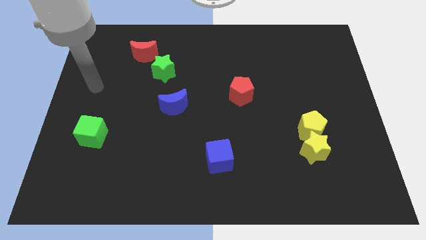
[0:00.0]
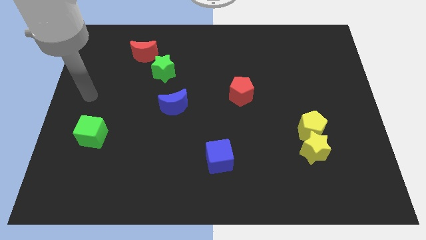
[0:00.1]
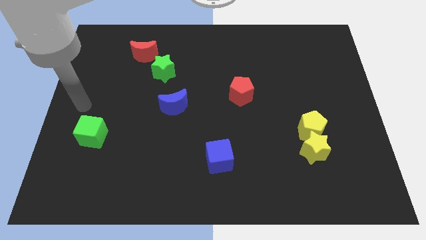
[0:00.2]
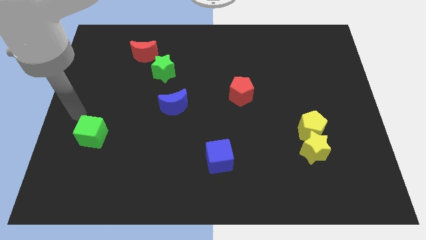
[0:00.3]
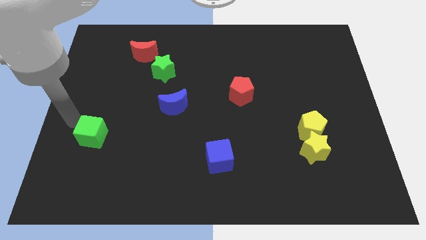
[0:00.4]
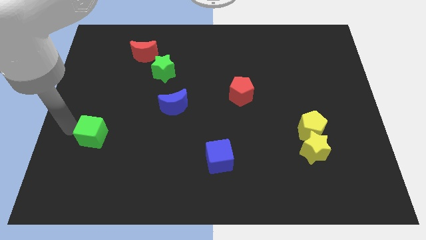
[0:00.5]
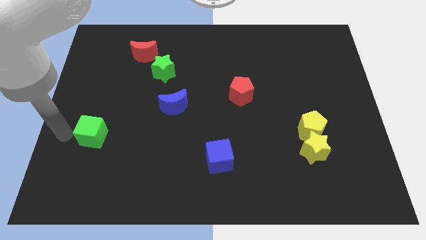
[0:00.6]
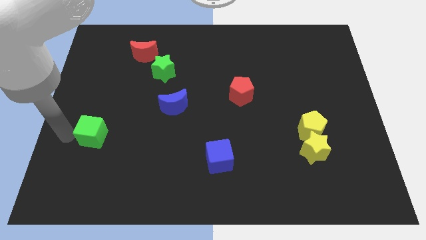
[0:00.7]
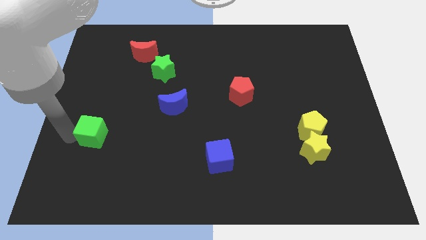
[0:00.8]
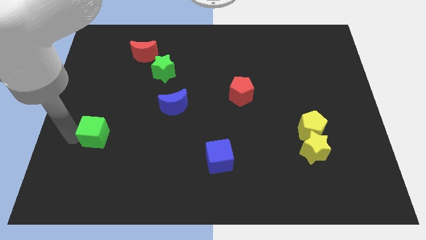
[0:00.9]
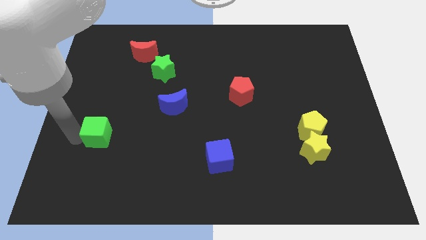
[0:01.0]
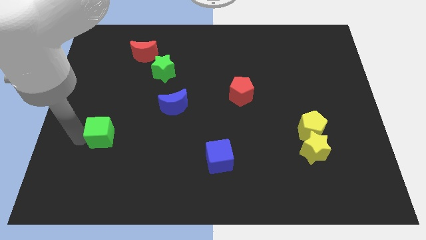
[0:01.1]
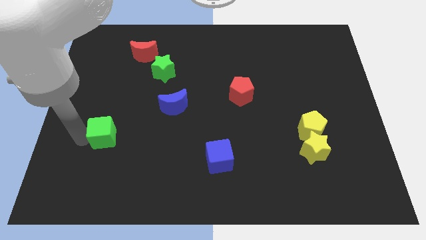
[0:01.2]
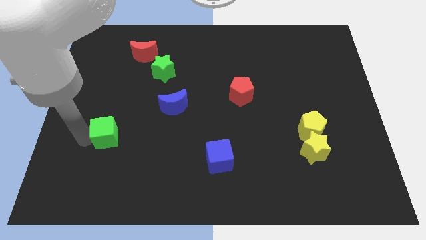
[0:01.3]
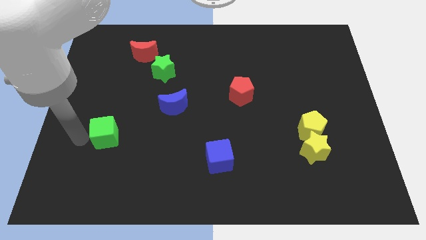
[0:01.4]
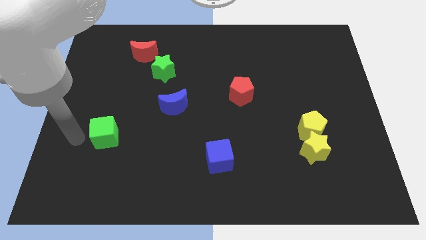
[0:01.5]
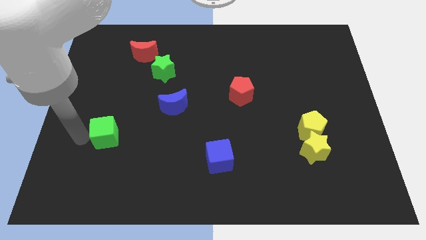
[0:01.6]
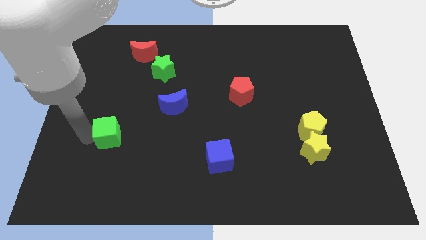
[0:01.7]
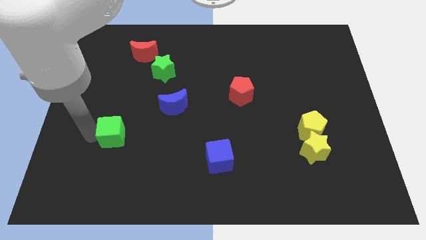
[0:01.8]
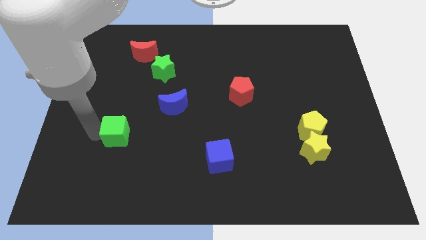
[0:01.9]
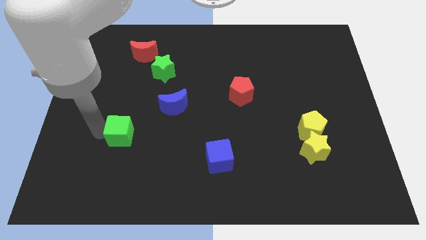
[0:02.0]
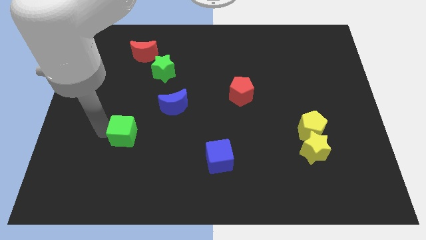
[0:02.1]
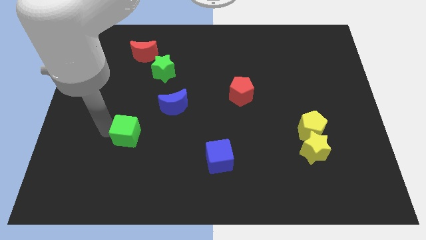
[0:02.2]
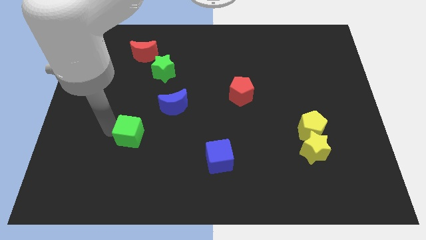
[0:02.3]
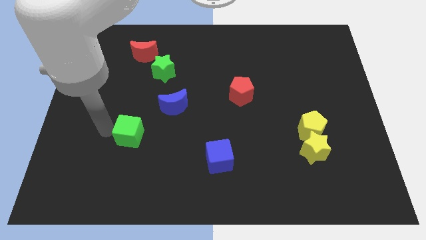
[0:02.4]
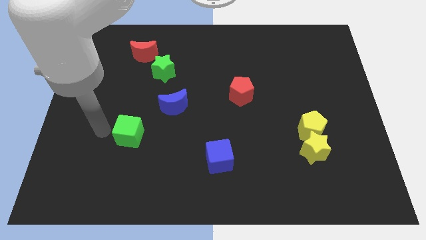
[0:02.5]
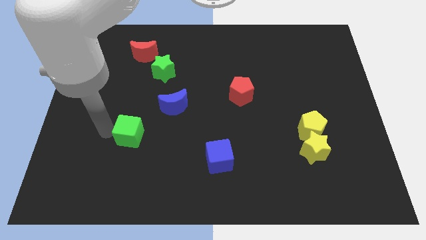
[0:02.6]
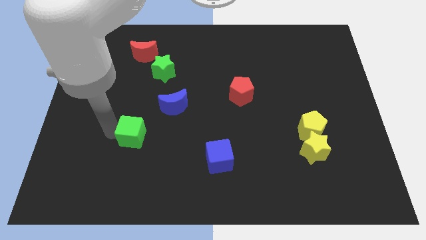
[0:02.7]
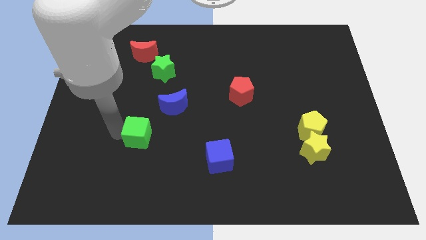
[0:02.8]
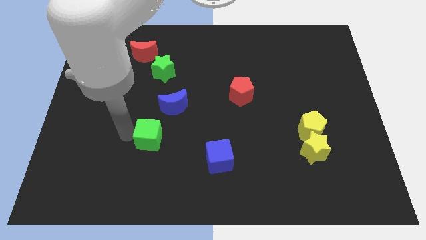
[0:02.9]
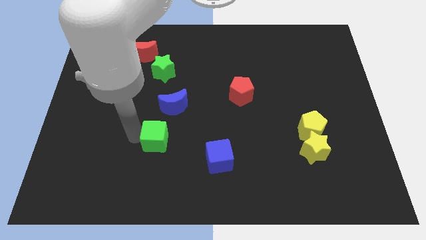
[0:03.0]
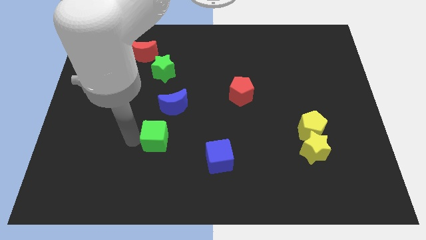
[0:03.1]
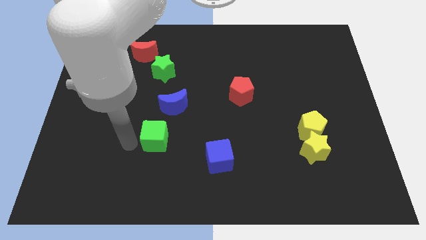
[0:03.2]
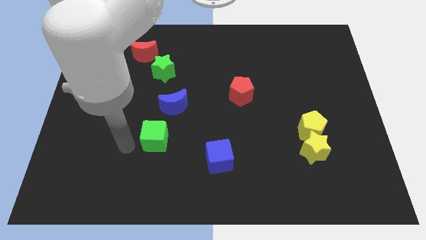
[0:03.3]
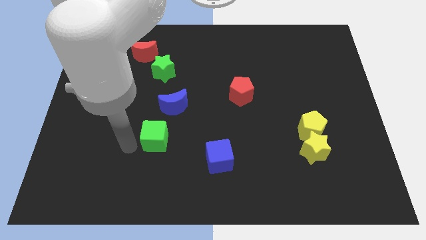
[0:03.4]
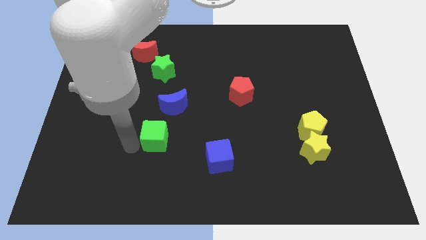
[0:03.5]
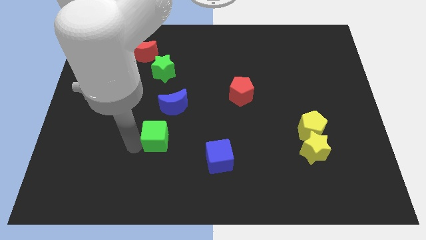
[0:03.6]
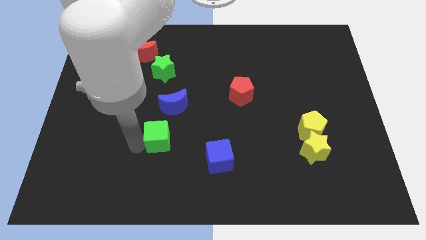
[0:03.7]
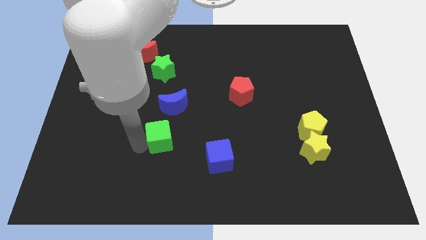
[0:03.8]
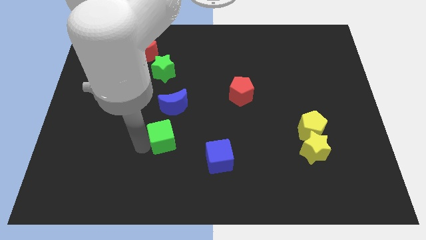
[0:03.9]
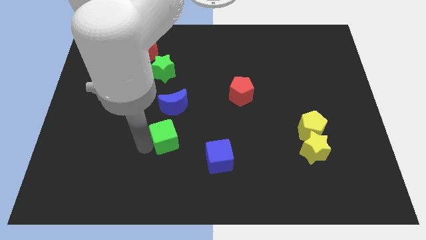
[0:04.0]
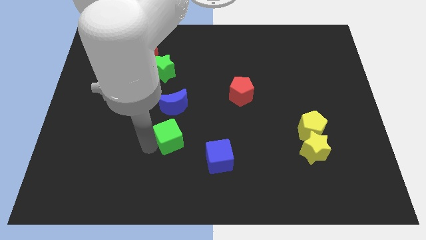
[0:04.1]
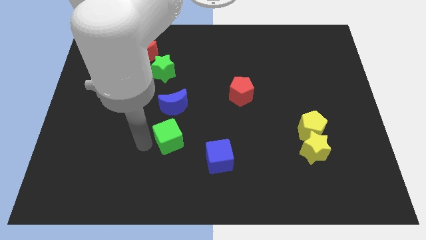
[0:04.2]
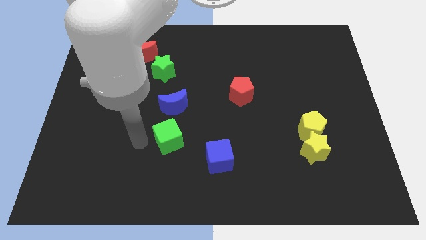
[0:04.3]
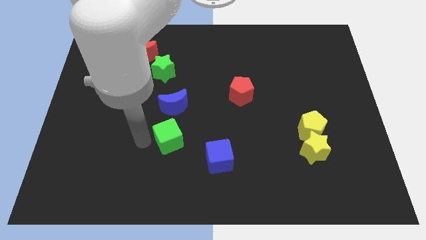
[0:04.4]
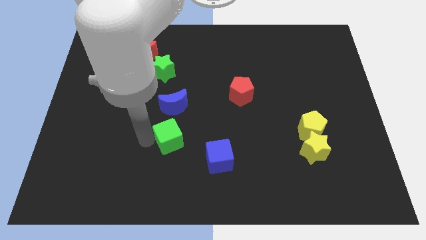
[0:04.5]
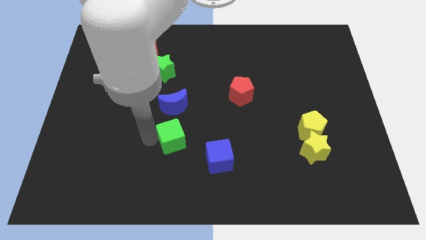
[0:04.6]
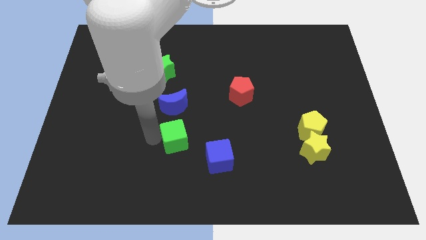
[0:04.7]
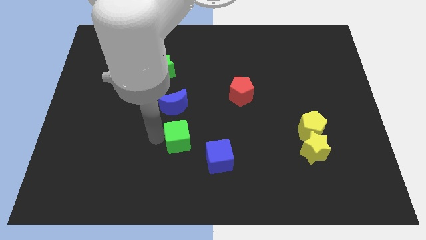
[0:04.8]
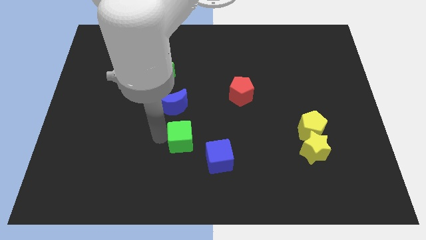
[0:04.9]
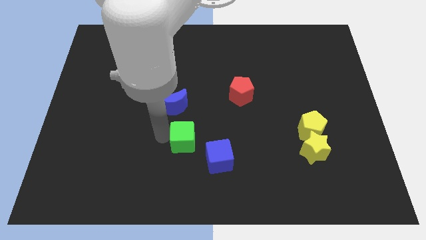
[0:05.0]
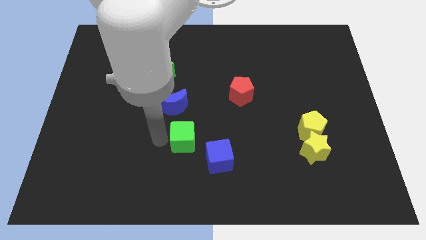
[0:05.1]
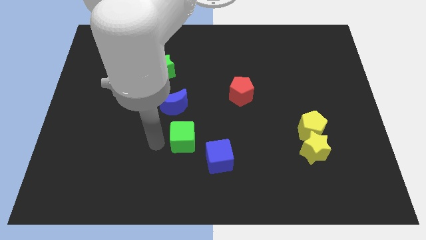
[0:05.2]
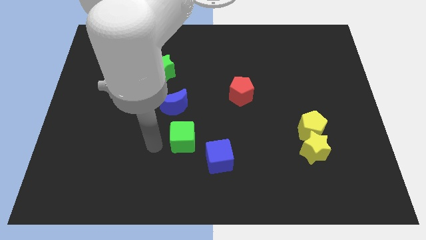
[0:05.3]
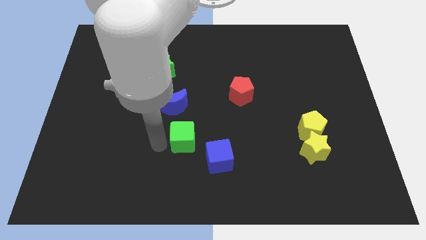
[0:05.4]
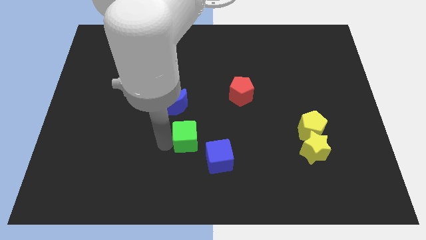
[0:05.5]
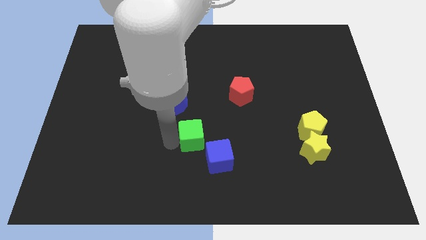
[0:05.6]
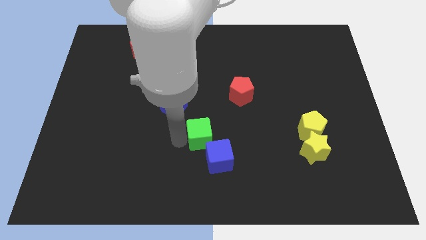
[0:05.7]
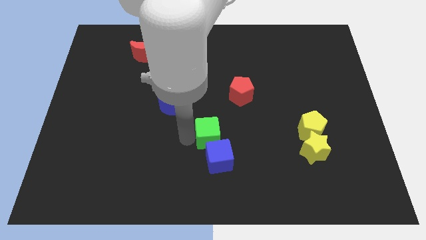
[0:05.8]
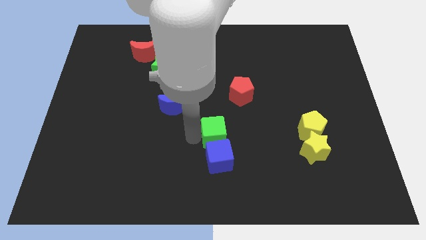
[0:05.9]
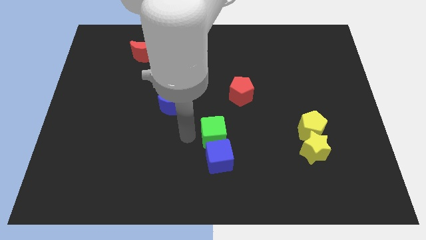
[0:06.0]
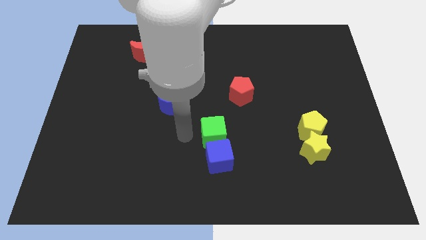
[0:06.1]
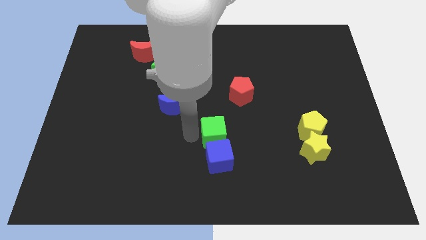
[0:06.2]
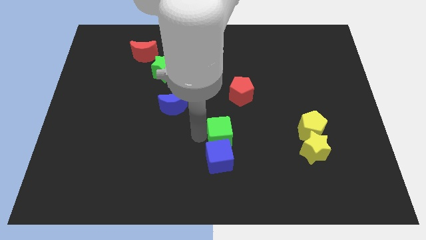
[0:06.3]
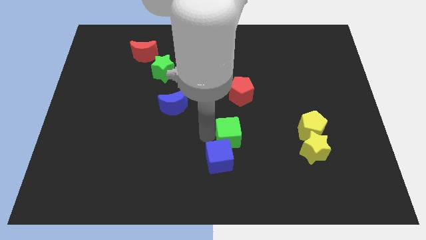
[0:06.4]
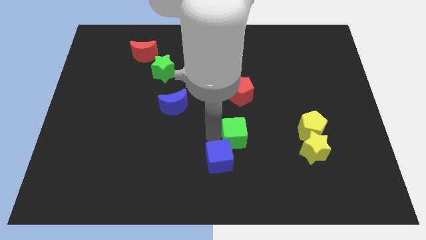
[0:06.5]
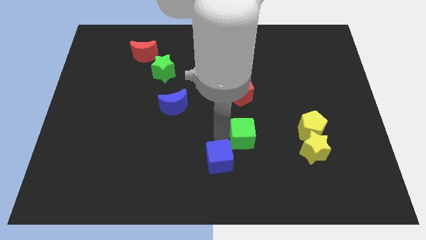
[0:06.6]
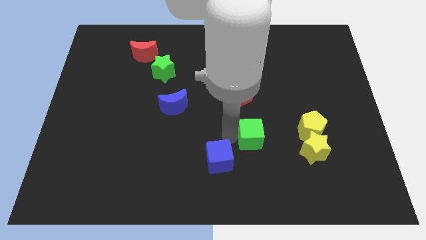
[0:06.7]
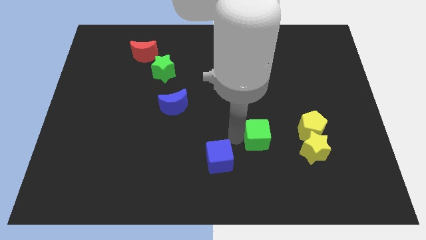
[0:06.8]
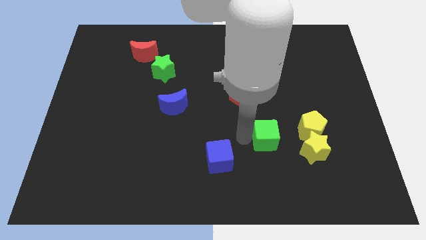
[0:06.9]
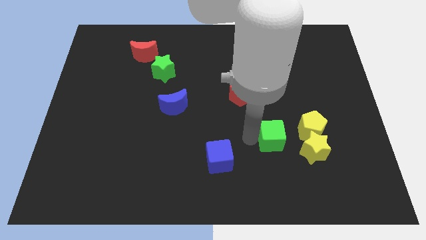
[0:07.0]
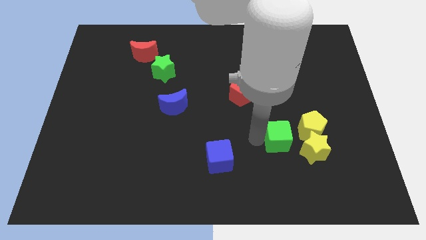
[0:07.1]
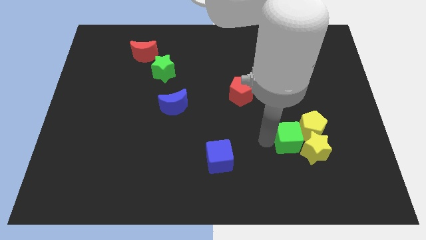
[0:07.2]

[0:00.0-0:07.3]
slide the green cube next to the yellow pentagon

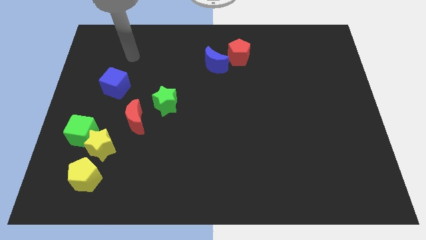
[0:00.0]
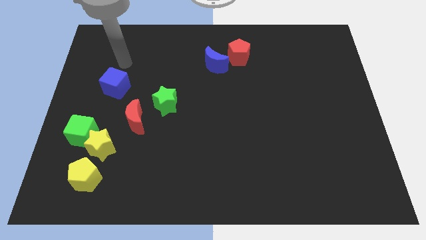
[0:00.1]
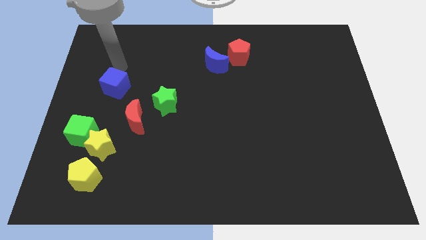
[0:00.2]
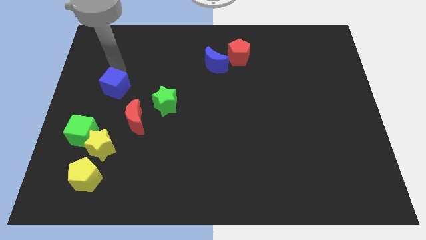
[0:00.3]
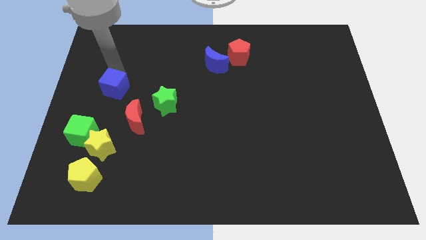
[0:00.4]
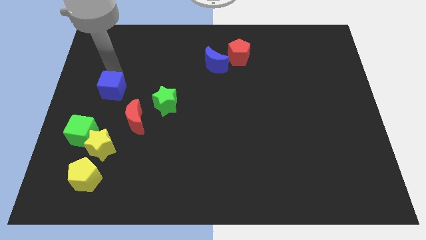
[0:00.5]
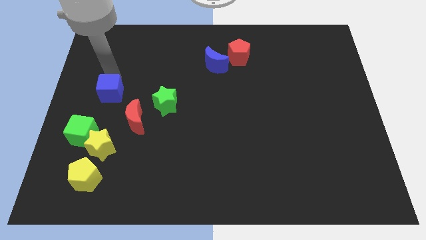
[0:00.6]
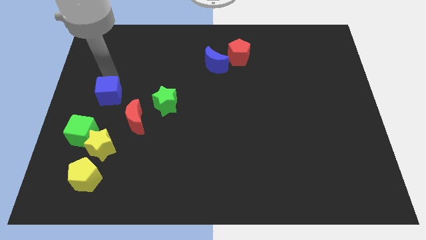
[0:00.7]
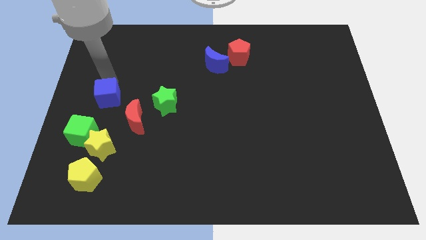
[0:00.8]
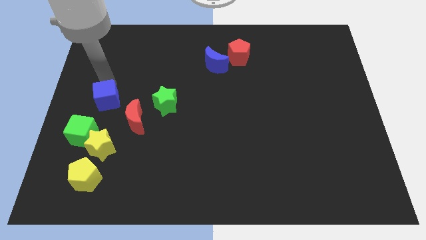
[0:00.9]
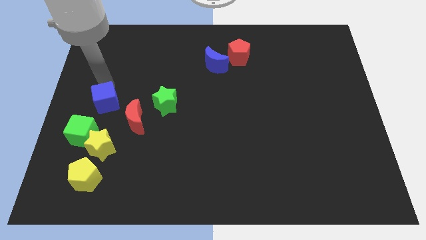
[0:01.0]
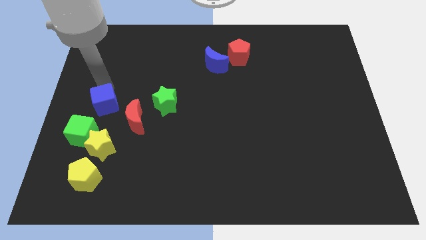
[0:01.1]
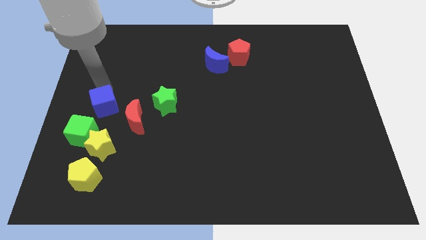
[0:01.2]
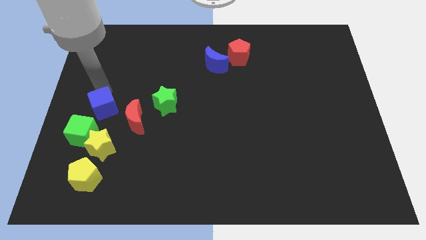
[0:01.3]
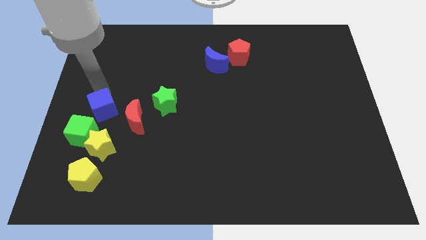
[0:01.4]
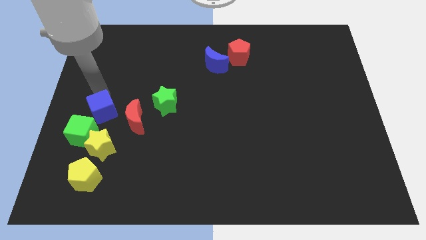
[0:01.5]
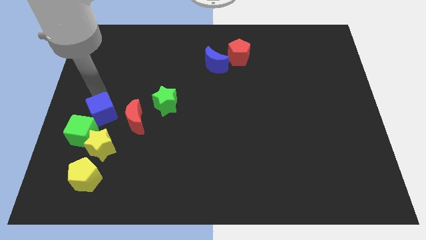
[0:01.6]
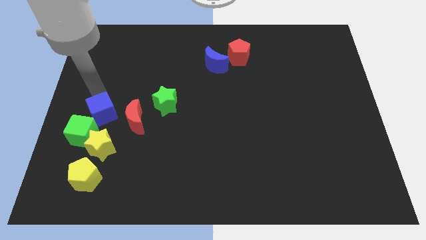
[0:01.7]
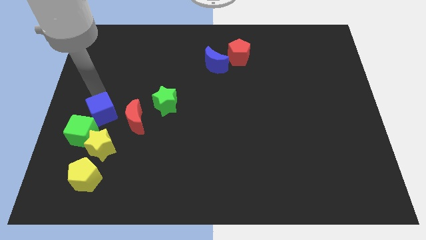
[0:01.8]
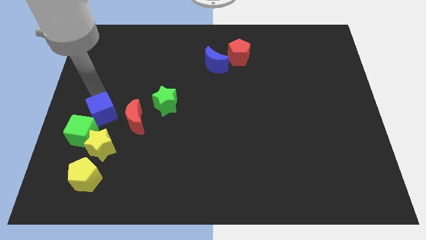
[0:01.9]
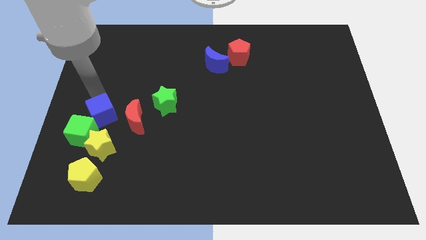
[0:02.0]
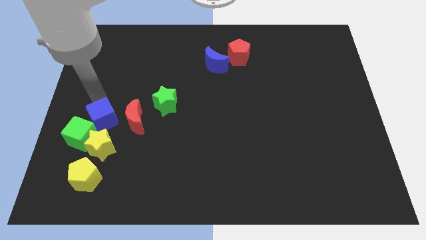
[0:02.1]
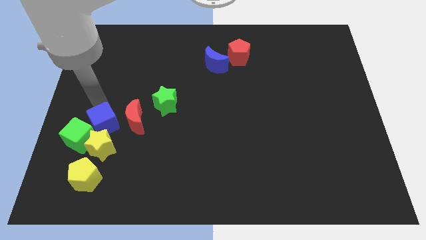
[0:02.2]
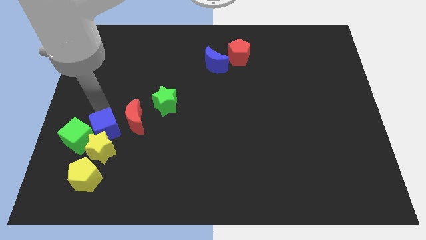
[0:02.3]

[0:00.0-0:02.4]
put the blue cube close to the yellow star
